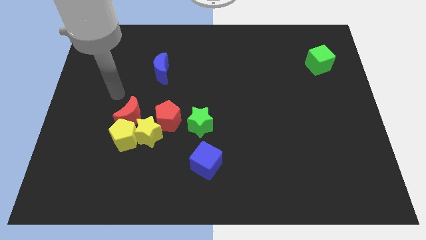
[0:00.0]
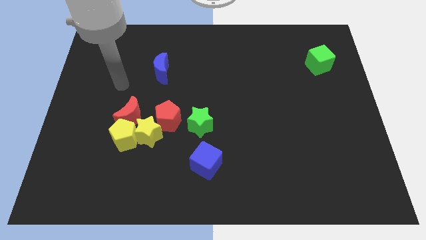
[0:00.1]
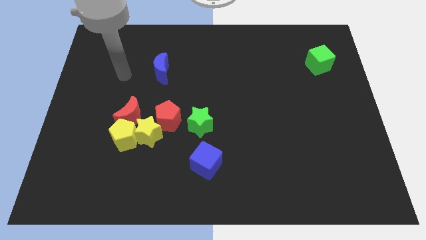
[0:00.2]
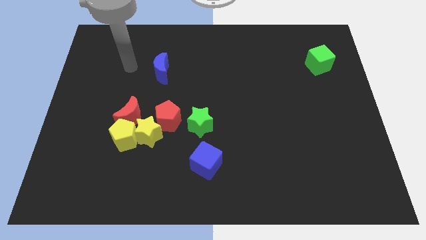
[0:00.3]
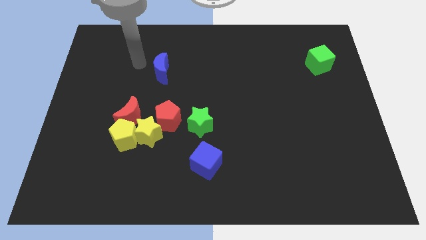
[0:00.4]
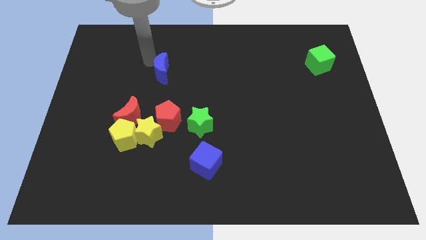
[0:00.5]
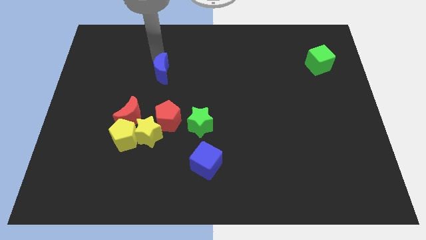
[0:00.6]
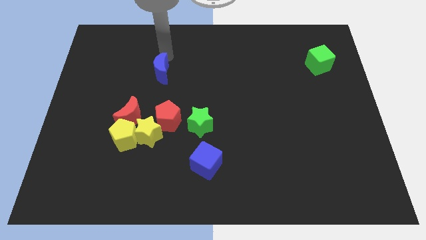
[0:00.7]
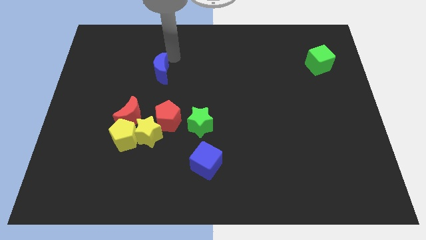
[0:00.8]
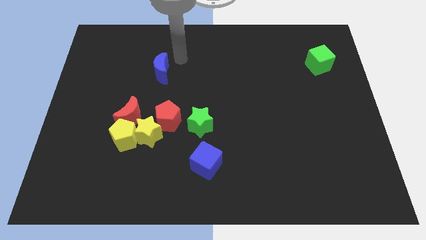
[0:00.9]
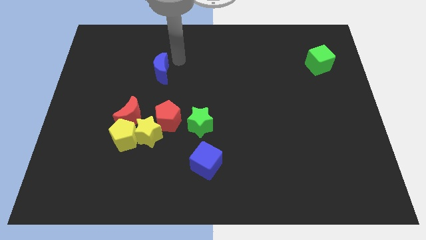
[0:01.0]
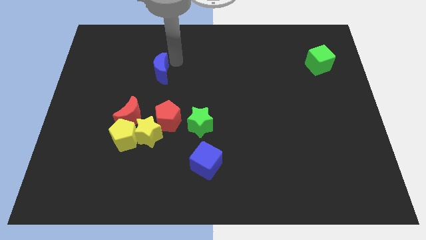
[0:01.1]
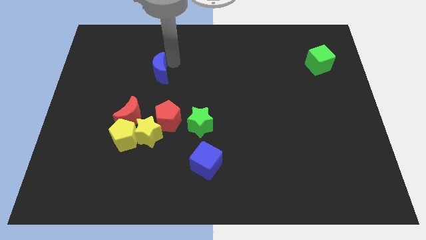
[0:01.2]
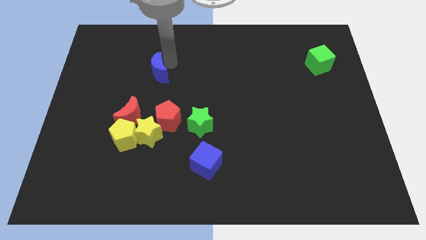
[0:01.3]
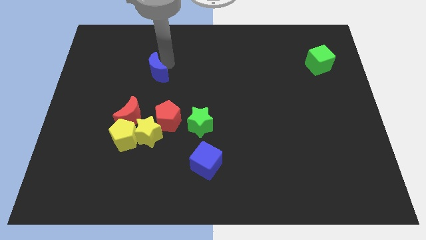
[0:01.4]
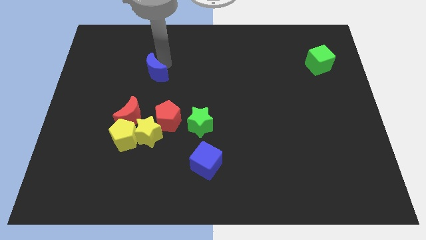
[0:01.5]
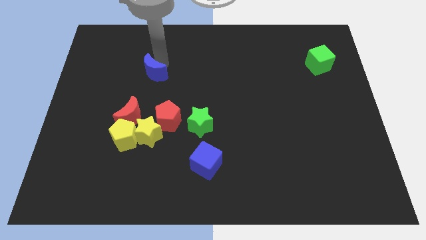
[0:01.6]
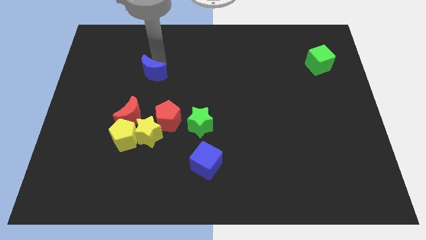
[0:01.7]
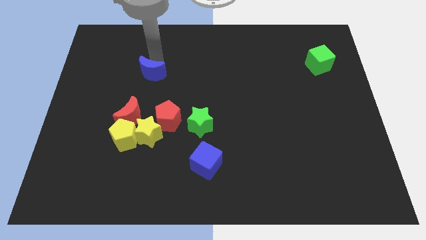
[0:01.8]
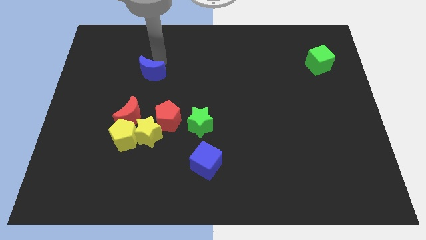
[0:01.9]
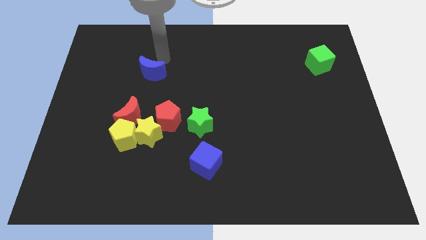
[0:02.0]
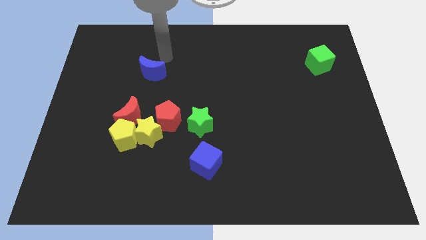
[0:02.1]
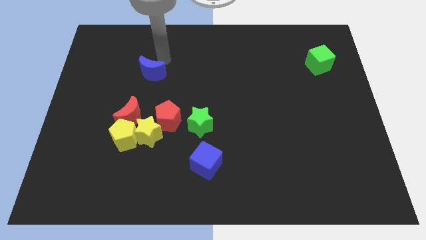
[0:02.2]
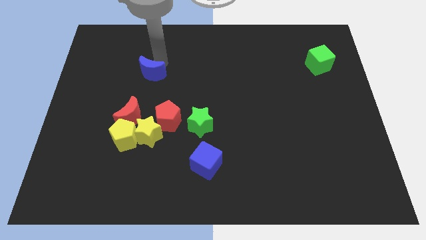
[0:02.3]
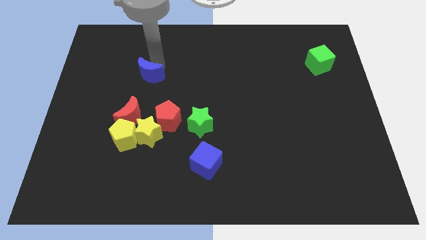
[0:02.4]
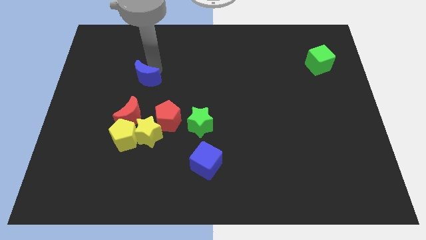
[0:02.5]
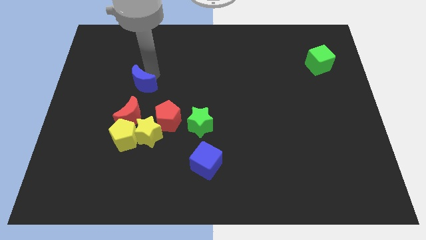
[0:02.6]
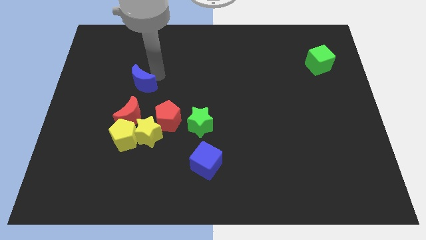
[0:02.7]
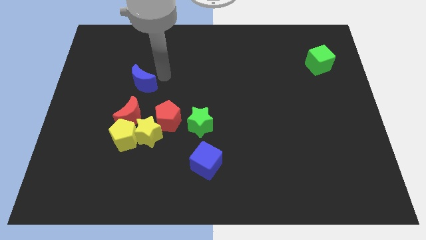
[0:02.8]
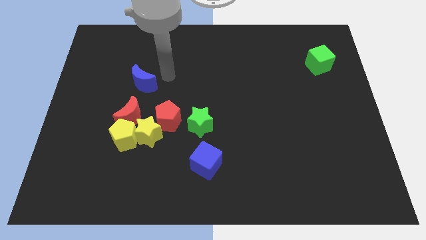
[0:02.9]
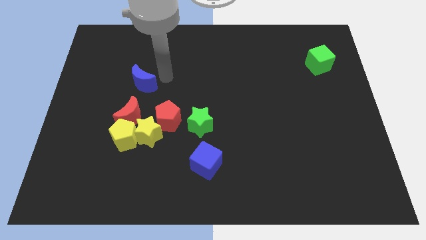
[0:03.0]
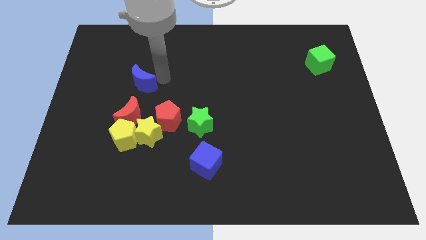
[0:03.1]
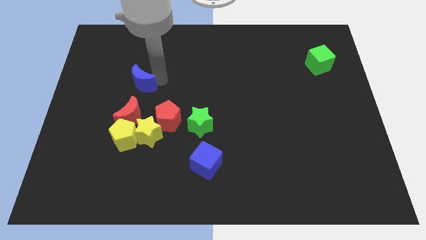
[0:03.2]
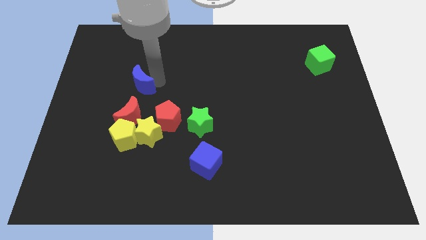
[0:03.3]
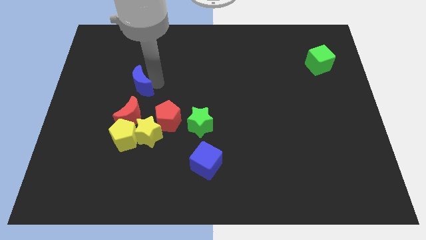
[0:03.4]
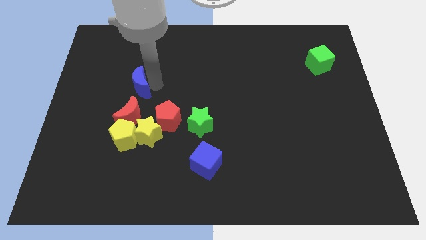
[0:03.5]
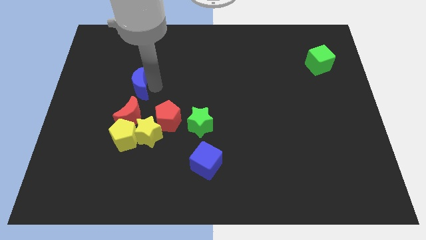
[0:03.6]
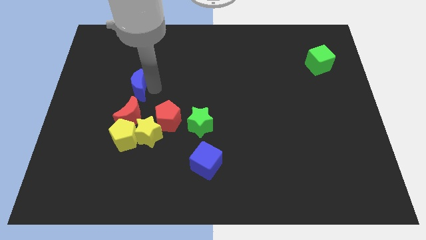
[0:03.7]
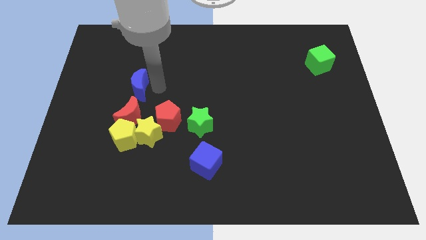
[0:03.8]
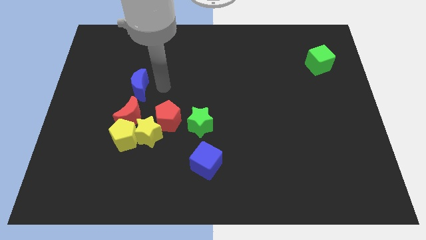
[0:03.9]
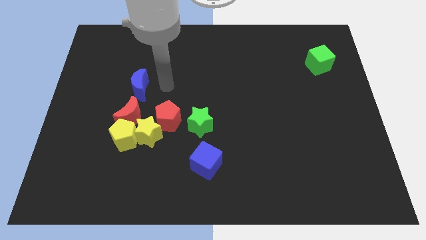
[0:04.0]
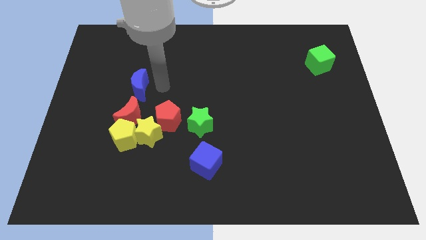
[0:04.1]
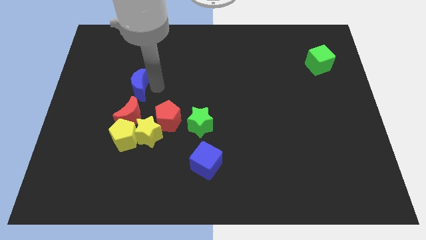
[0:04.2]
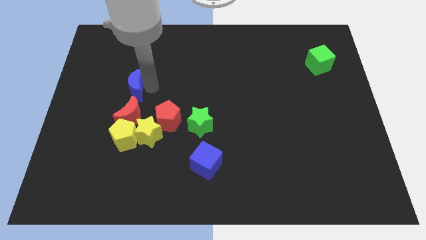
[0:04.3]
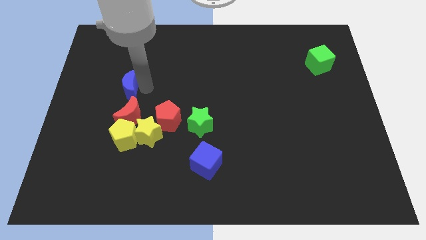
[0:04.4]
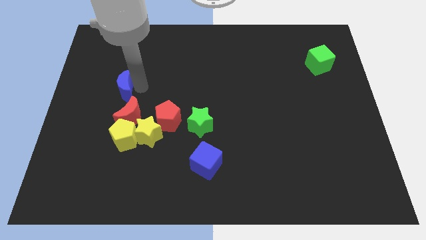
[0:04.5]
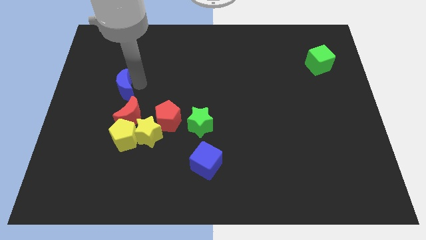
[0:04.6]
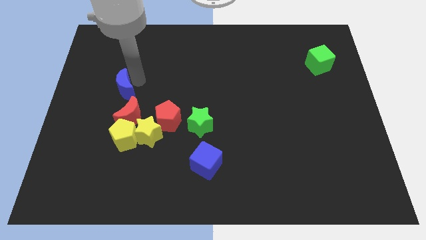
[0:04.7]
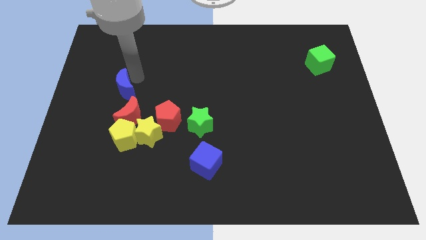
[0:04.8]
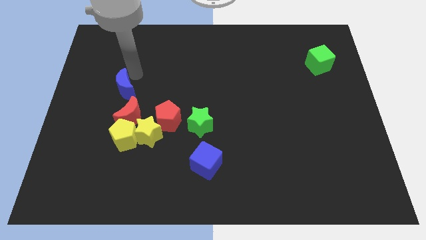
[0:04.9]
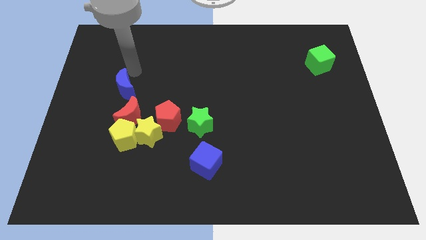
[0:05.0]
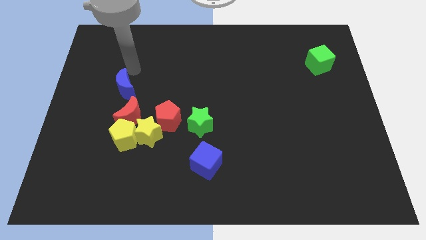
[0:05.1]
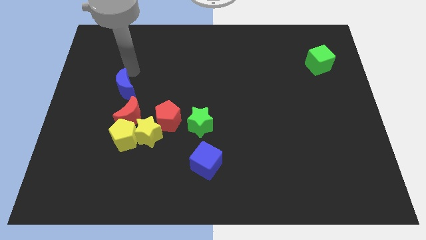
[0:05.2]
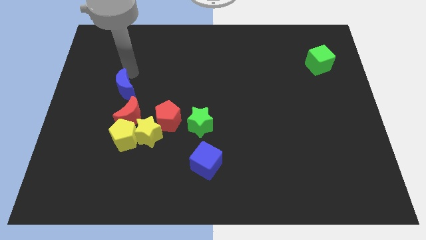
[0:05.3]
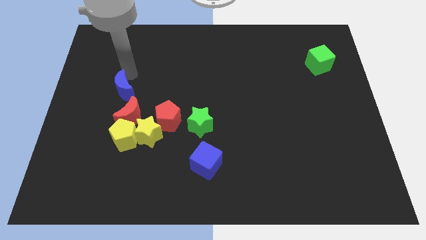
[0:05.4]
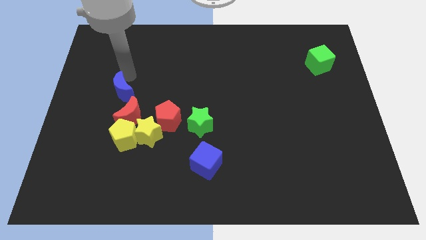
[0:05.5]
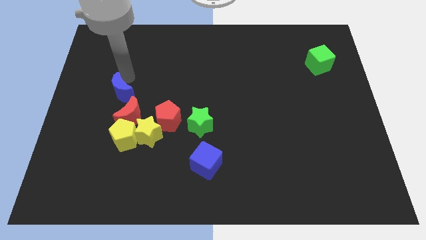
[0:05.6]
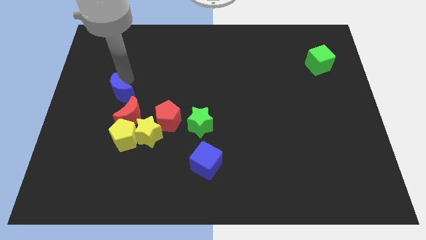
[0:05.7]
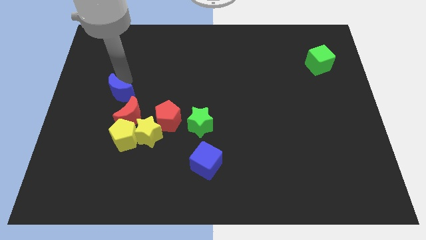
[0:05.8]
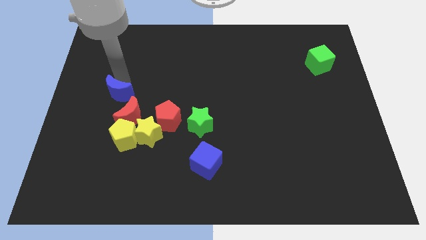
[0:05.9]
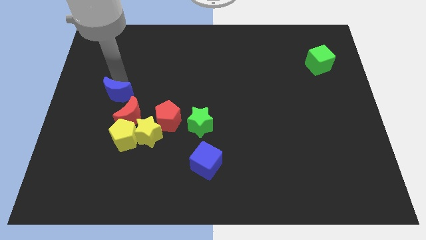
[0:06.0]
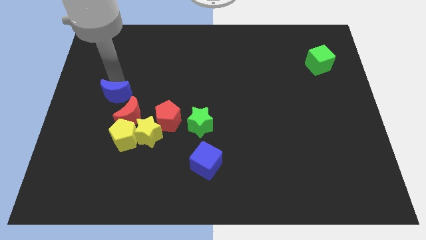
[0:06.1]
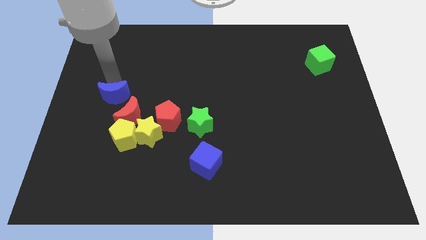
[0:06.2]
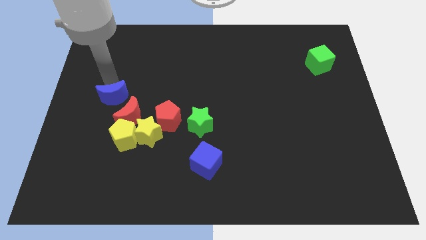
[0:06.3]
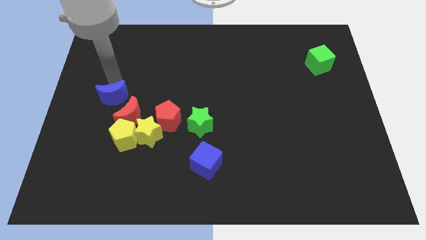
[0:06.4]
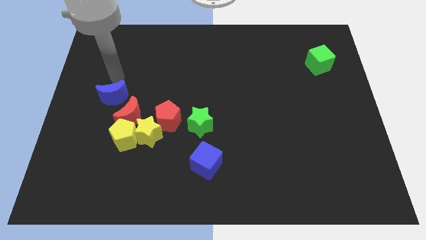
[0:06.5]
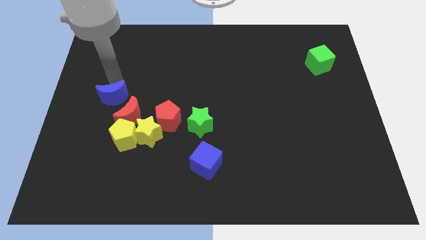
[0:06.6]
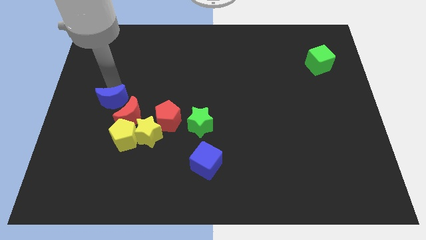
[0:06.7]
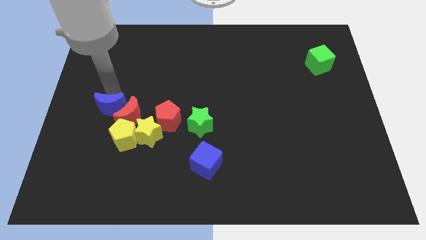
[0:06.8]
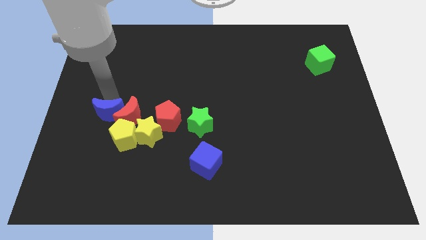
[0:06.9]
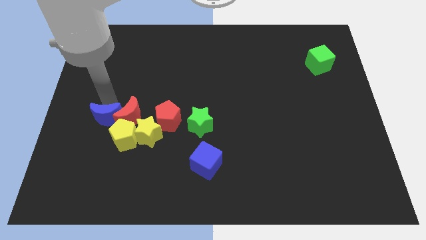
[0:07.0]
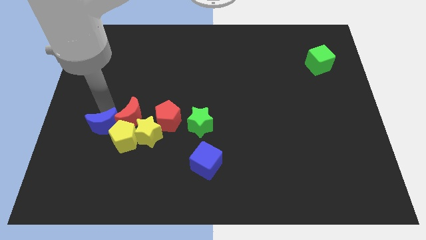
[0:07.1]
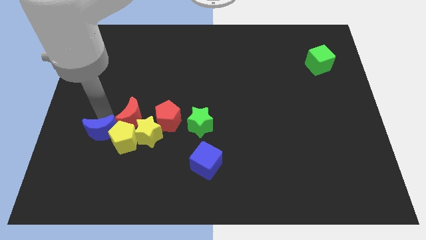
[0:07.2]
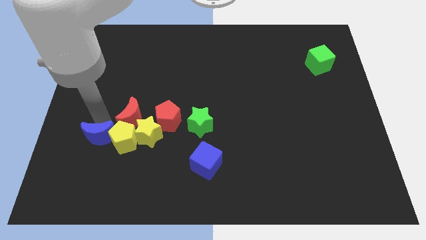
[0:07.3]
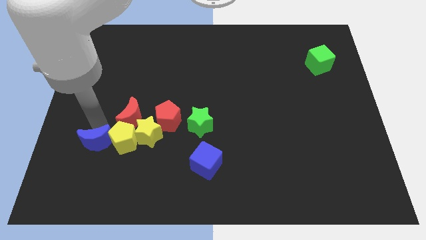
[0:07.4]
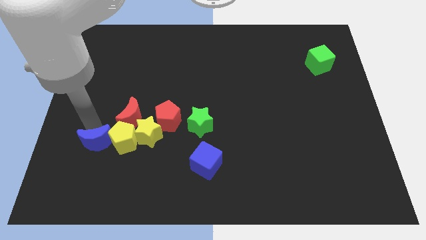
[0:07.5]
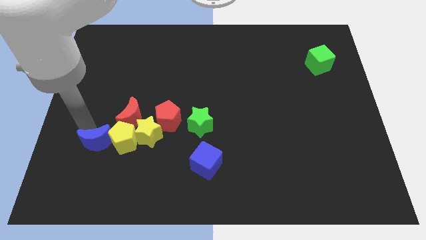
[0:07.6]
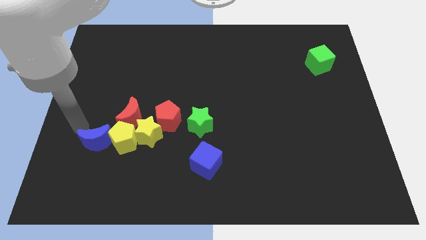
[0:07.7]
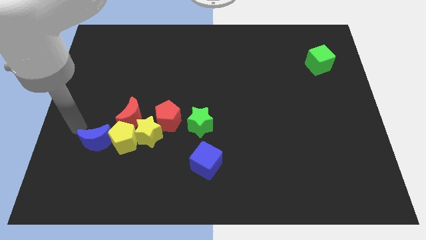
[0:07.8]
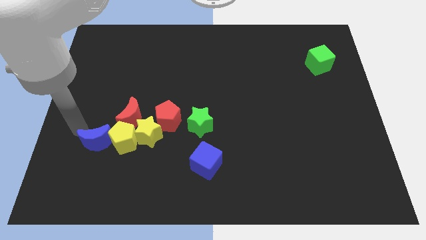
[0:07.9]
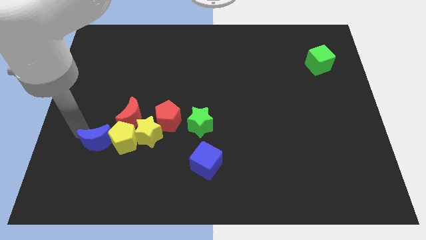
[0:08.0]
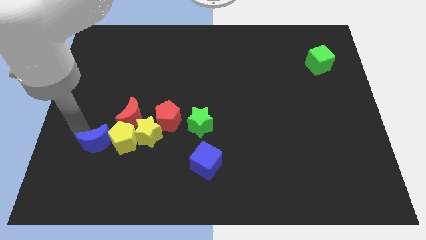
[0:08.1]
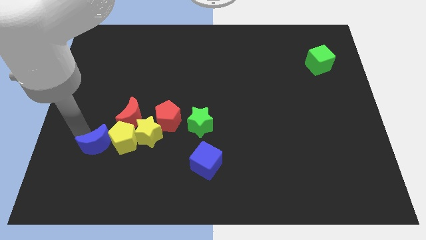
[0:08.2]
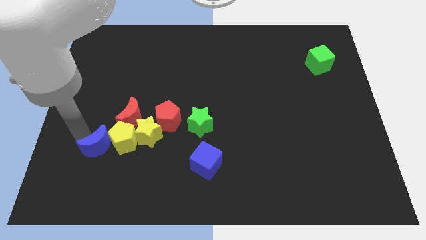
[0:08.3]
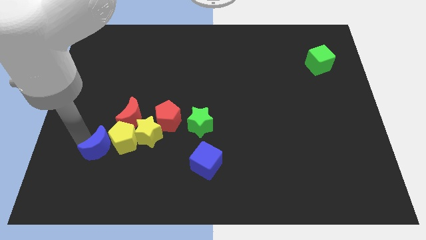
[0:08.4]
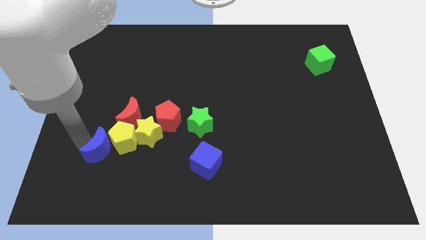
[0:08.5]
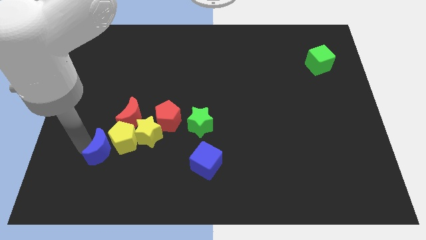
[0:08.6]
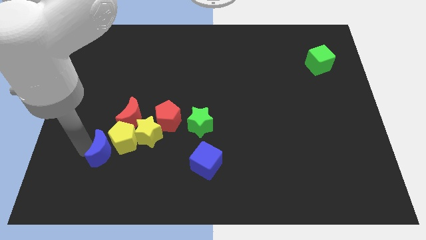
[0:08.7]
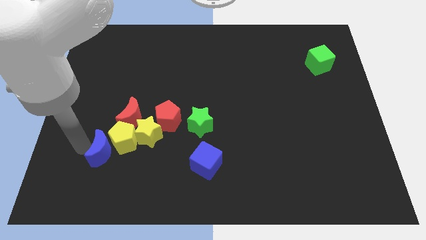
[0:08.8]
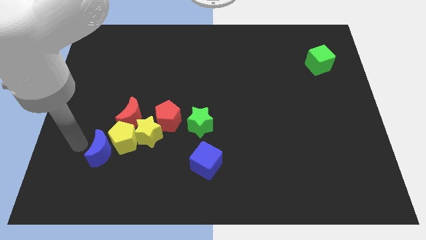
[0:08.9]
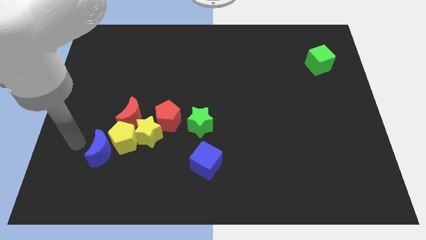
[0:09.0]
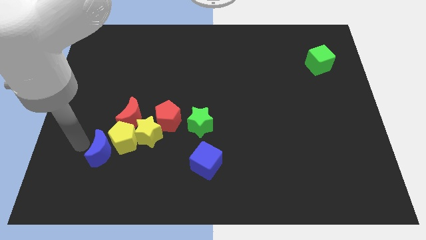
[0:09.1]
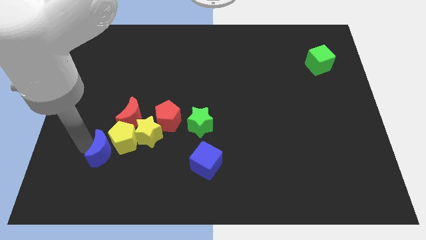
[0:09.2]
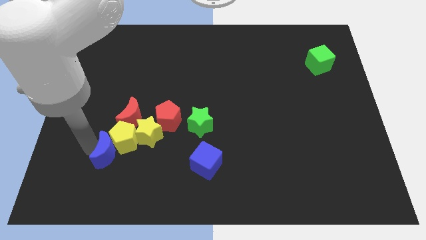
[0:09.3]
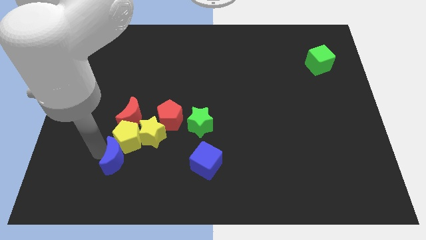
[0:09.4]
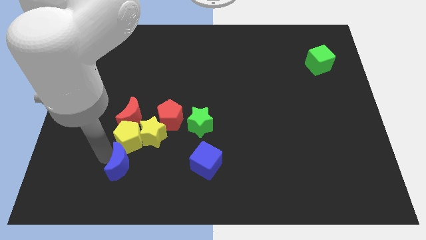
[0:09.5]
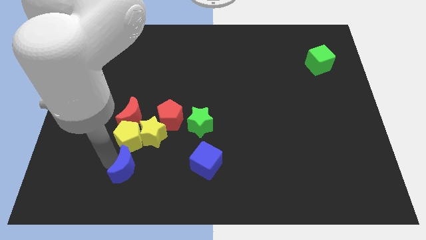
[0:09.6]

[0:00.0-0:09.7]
put the blue moon diagonally down and to the right of the yellow pentagon
